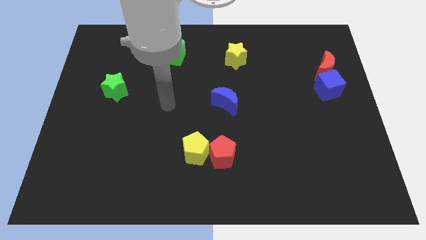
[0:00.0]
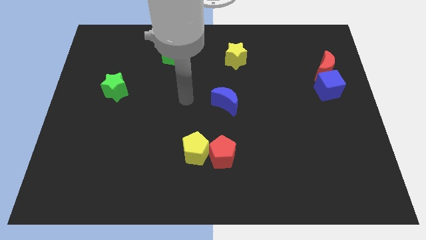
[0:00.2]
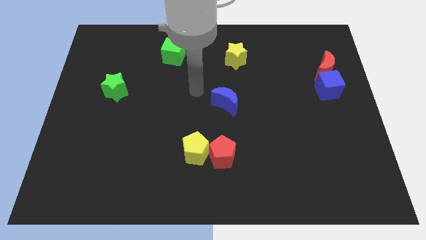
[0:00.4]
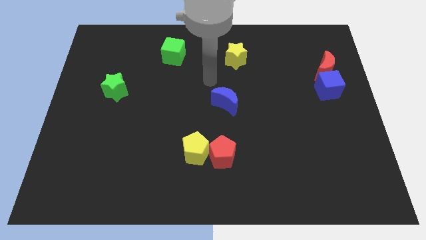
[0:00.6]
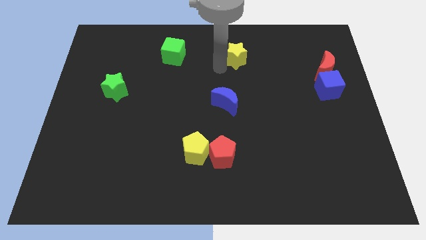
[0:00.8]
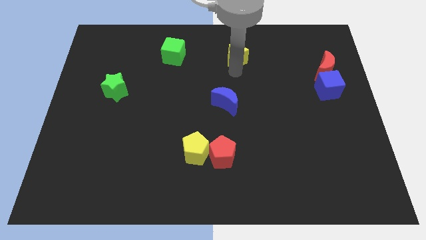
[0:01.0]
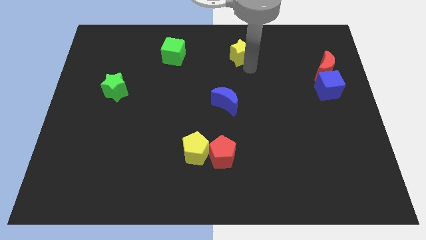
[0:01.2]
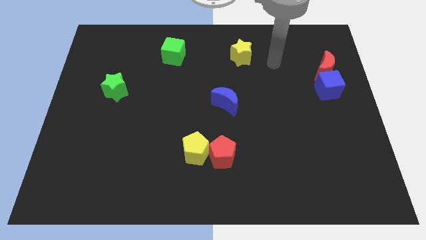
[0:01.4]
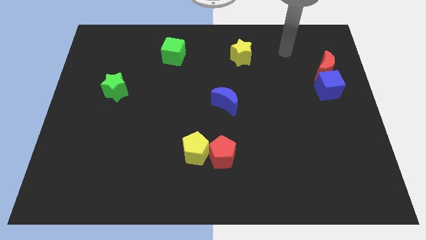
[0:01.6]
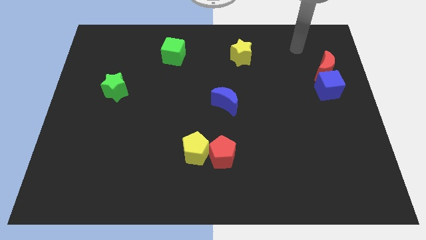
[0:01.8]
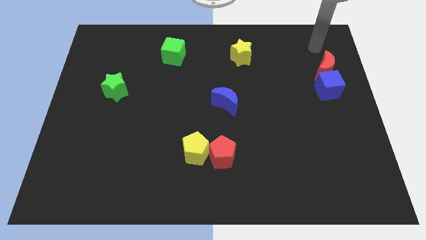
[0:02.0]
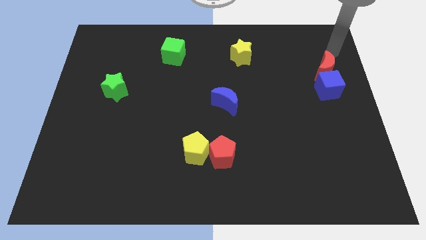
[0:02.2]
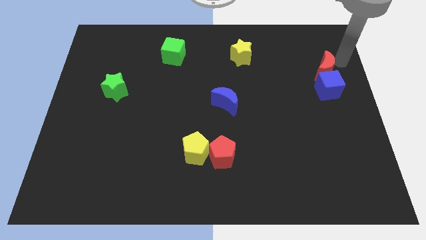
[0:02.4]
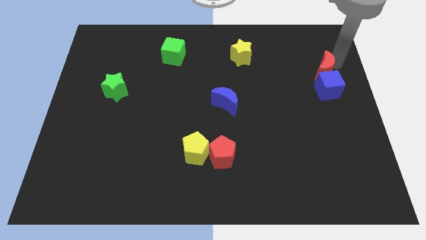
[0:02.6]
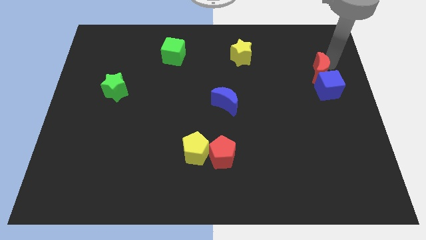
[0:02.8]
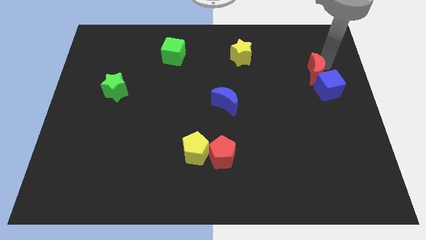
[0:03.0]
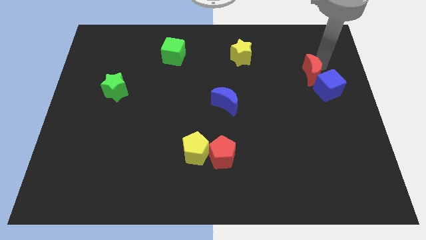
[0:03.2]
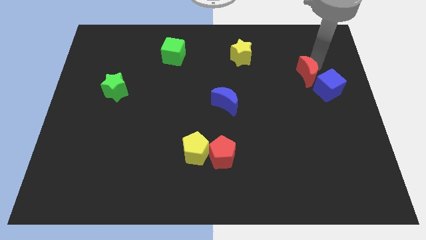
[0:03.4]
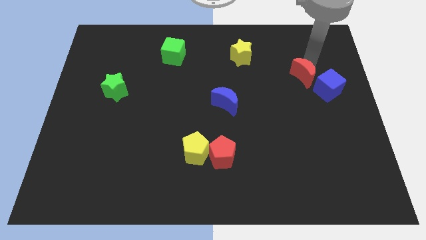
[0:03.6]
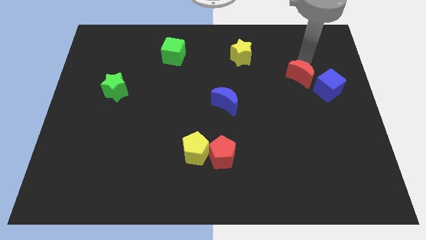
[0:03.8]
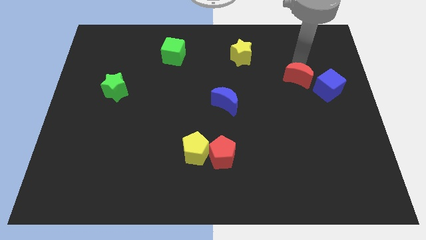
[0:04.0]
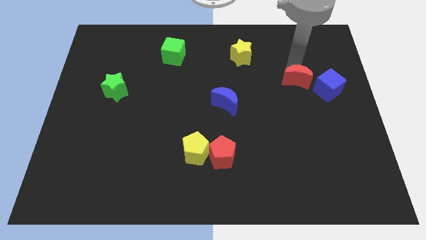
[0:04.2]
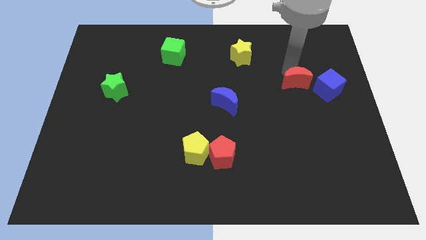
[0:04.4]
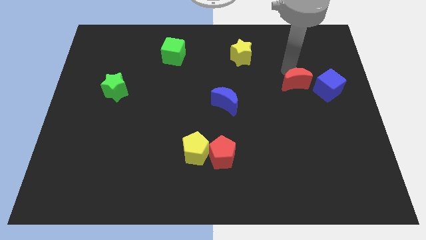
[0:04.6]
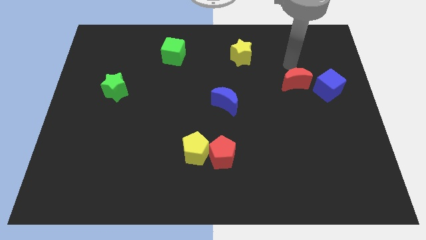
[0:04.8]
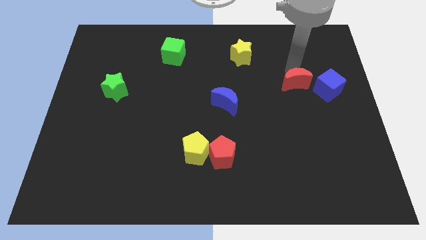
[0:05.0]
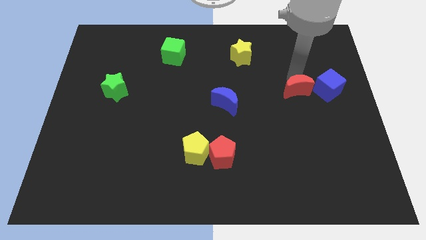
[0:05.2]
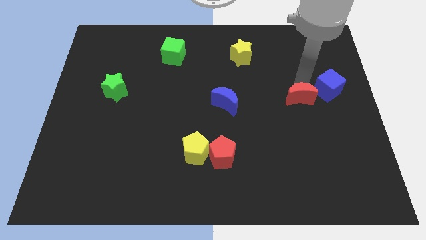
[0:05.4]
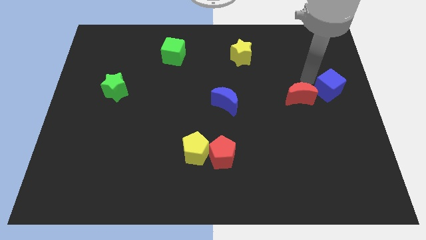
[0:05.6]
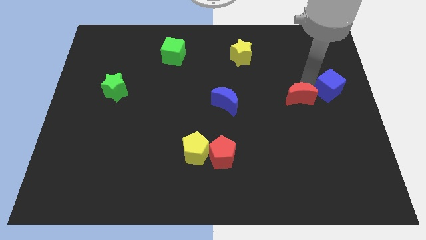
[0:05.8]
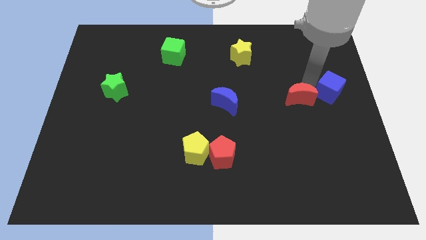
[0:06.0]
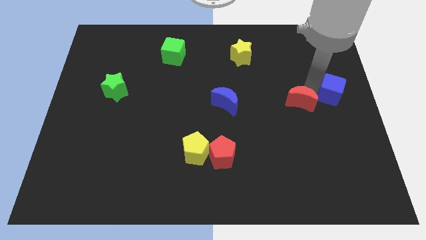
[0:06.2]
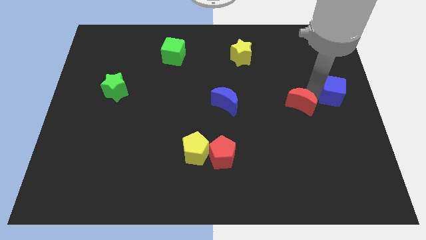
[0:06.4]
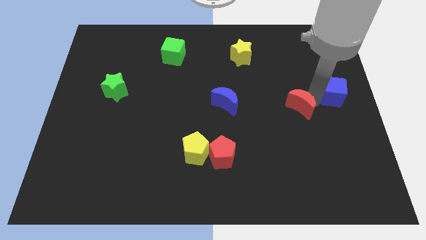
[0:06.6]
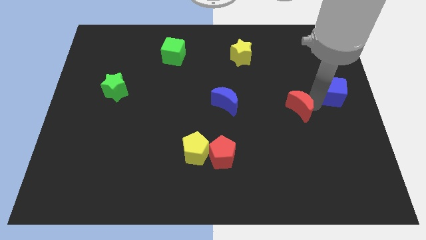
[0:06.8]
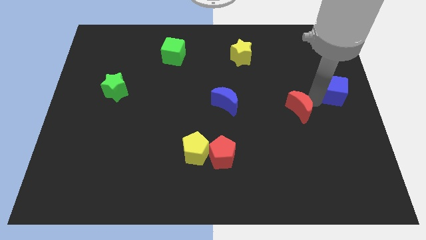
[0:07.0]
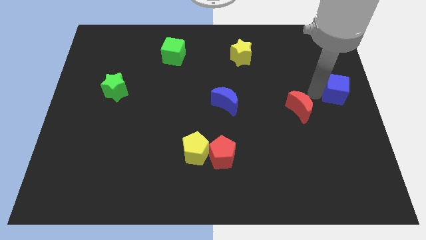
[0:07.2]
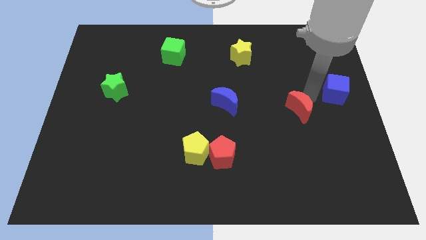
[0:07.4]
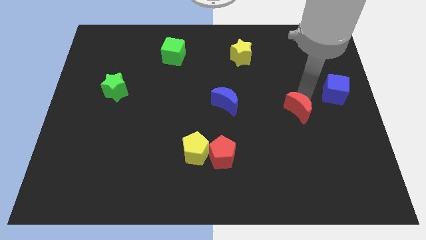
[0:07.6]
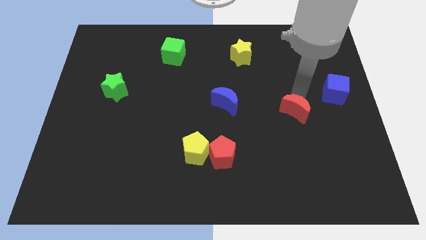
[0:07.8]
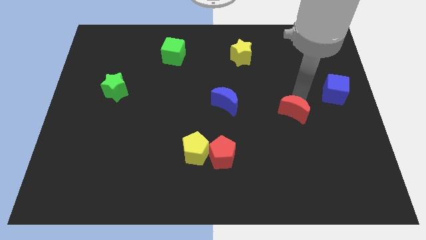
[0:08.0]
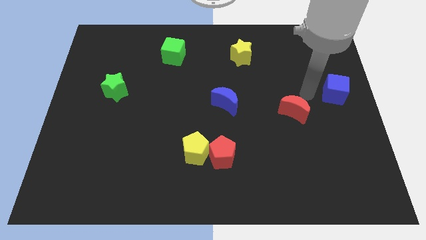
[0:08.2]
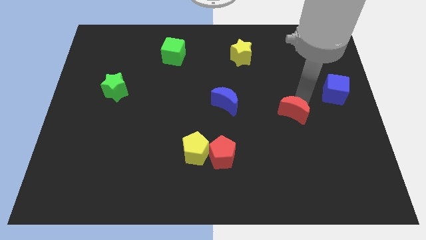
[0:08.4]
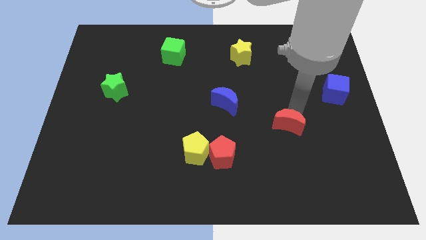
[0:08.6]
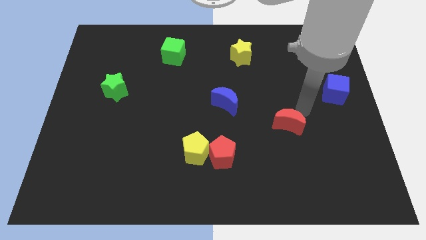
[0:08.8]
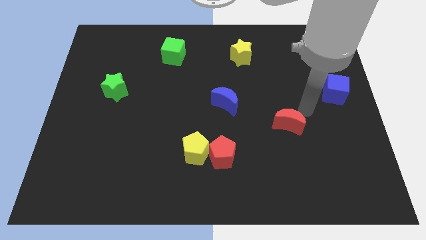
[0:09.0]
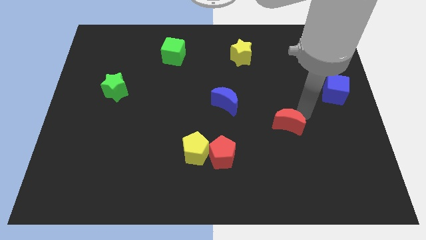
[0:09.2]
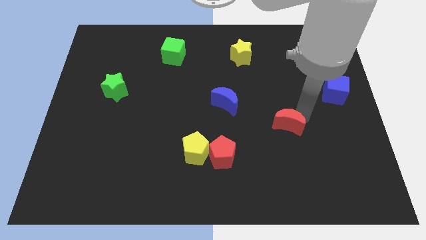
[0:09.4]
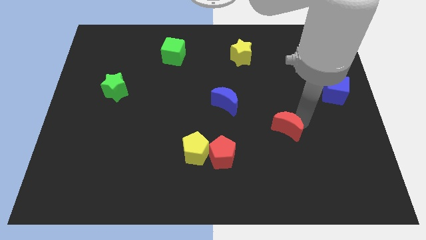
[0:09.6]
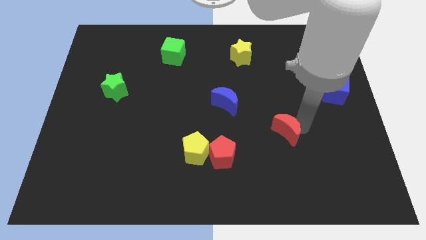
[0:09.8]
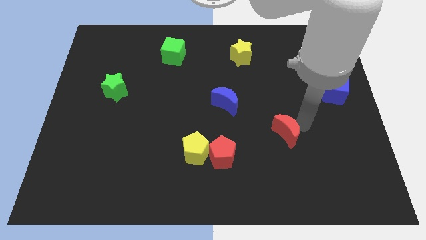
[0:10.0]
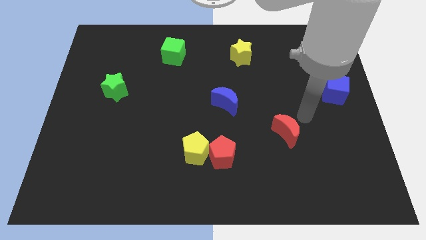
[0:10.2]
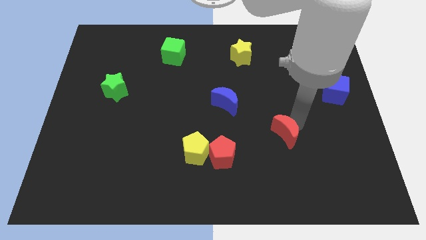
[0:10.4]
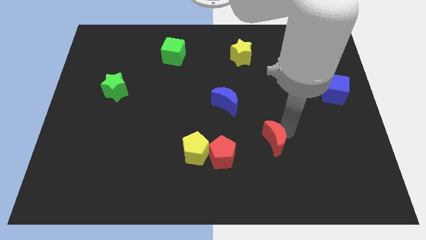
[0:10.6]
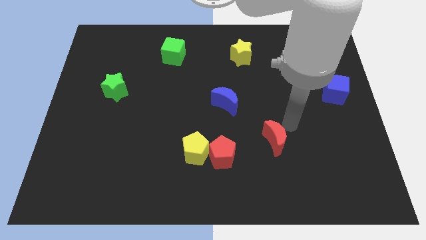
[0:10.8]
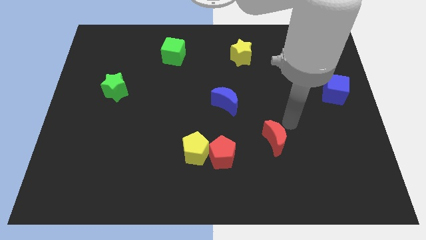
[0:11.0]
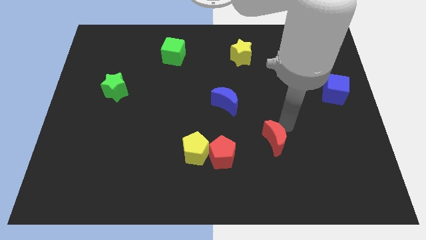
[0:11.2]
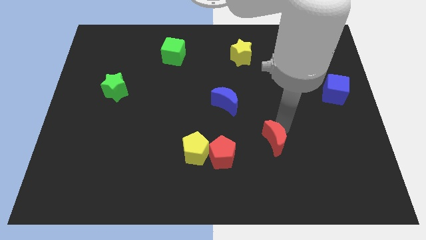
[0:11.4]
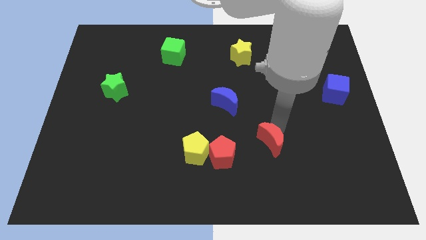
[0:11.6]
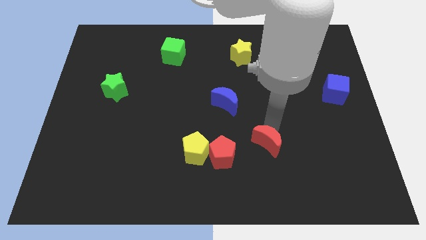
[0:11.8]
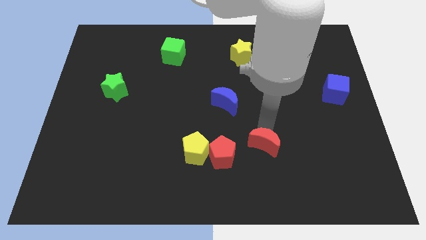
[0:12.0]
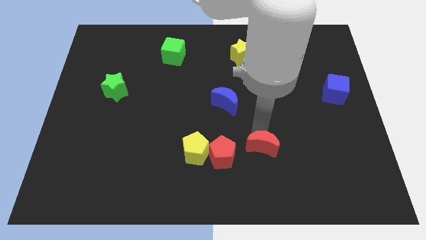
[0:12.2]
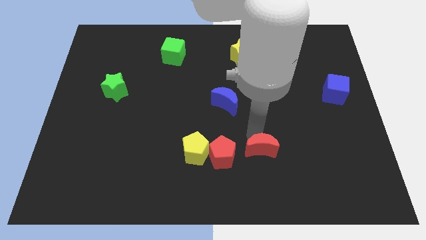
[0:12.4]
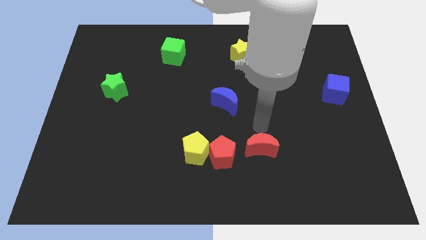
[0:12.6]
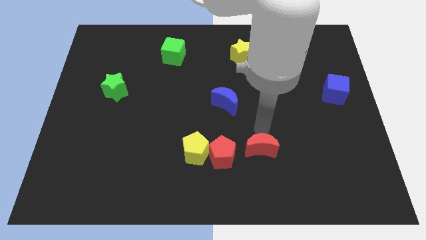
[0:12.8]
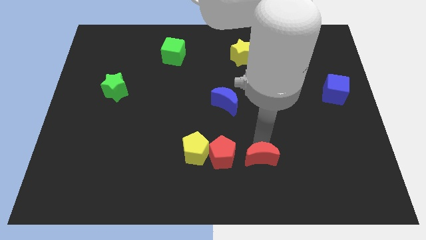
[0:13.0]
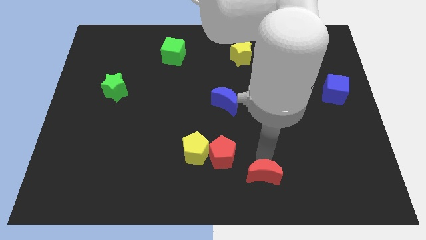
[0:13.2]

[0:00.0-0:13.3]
slide the red moon to the bottom
